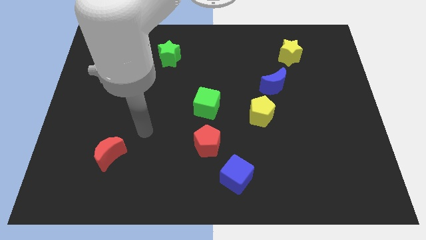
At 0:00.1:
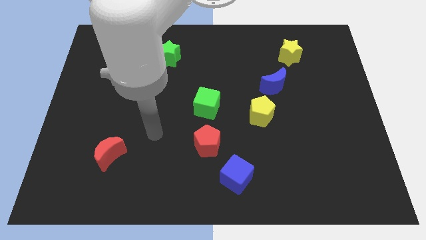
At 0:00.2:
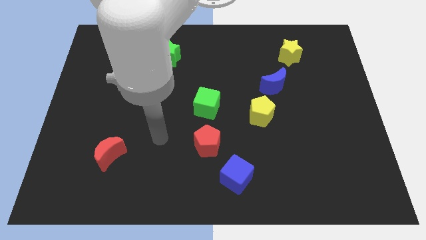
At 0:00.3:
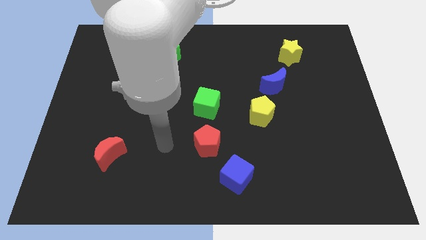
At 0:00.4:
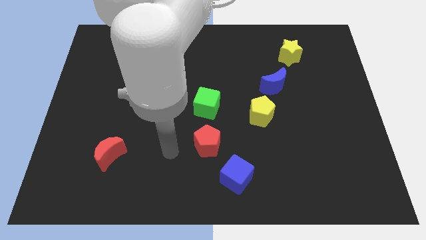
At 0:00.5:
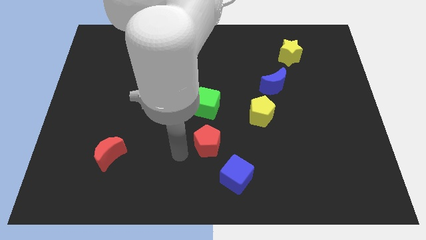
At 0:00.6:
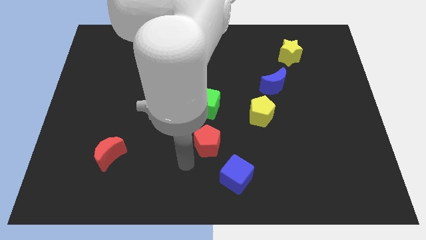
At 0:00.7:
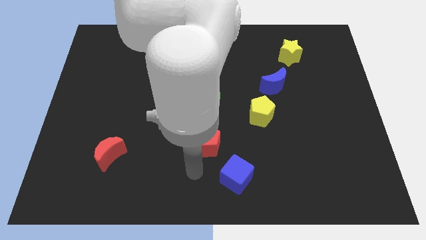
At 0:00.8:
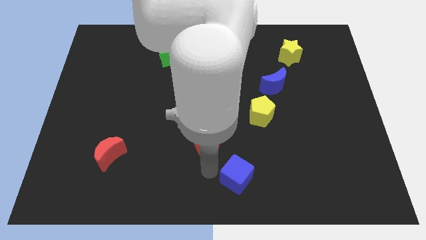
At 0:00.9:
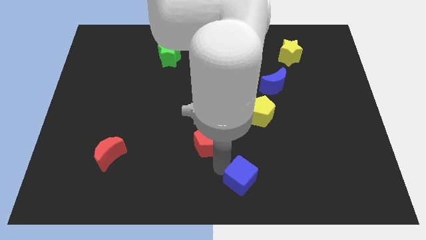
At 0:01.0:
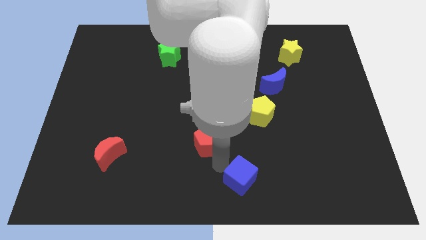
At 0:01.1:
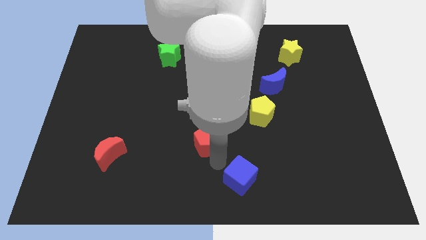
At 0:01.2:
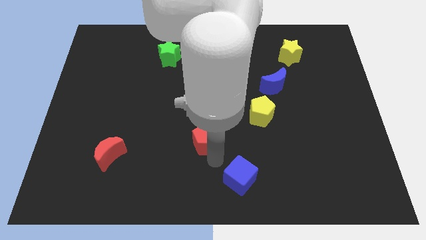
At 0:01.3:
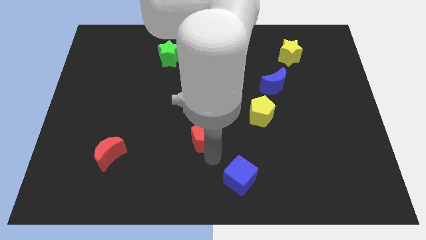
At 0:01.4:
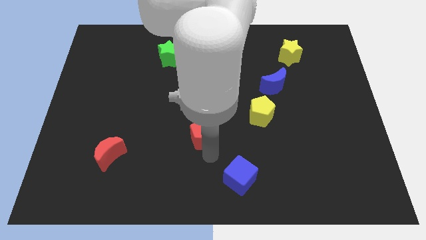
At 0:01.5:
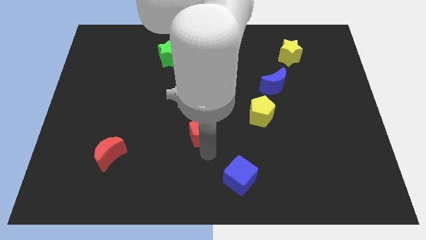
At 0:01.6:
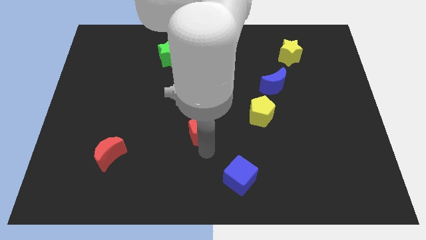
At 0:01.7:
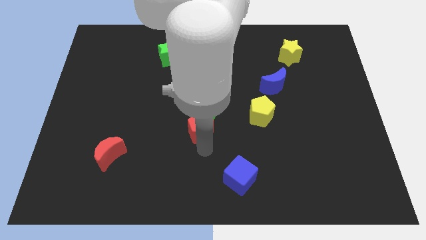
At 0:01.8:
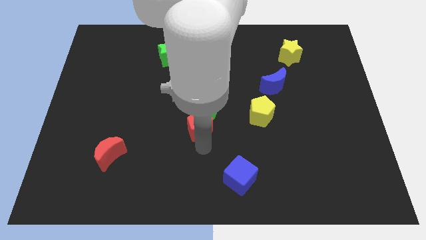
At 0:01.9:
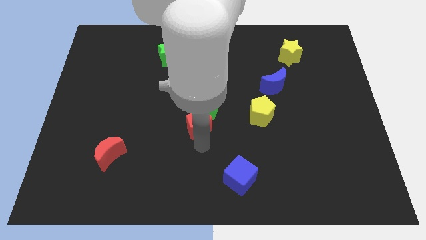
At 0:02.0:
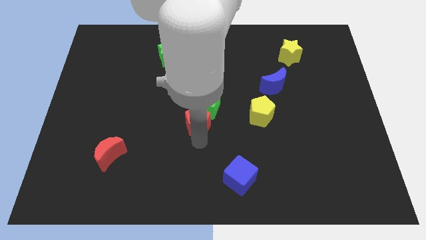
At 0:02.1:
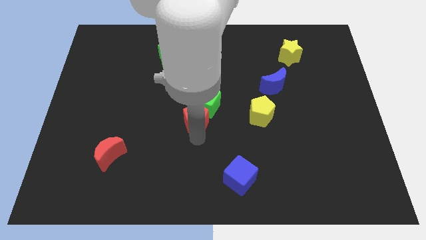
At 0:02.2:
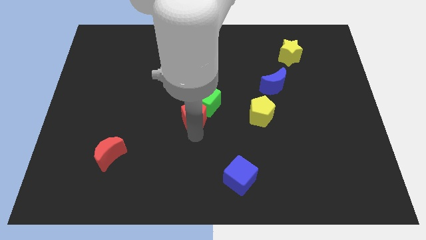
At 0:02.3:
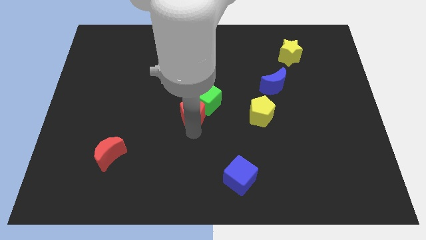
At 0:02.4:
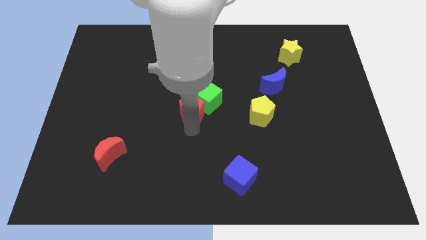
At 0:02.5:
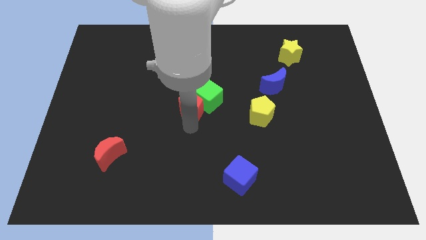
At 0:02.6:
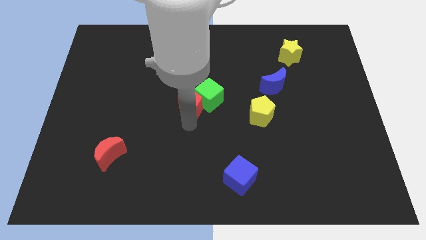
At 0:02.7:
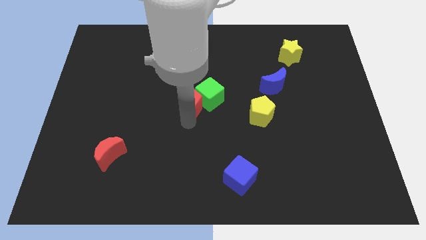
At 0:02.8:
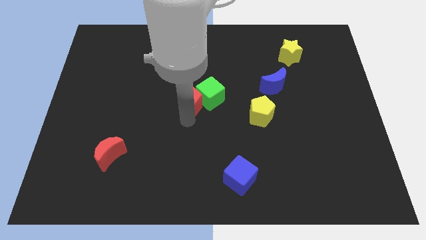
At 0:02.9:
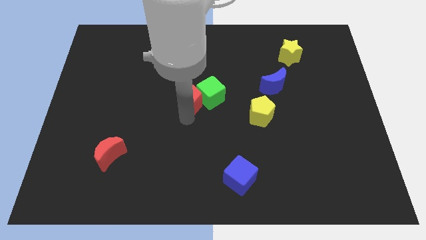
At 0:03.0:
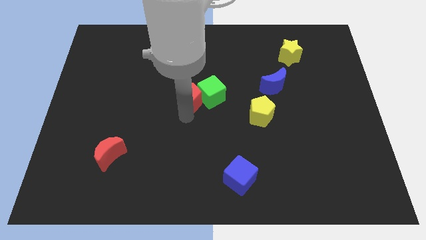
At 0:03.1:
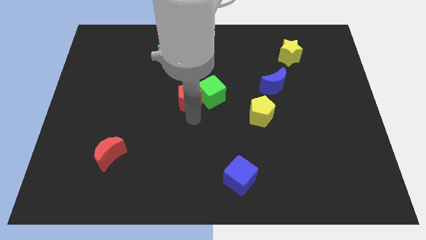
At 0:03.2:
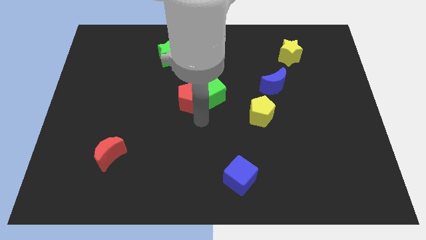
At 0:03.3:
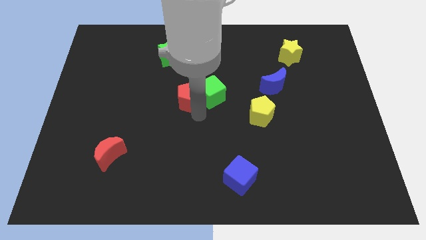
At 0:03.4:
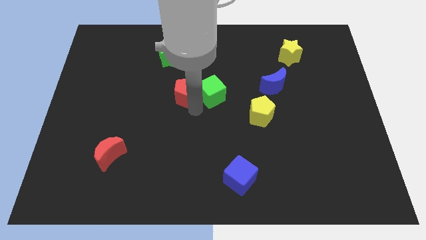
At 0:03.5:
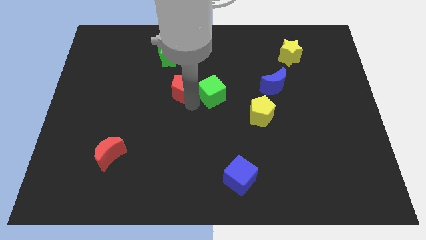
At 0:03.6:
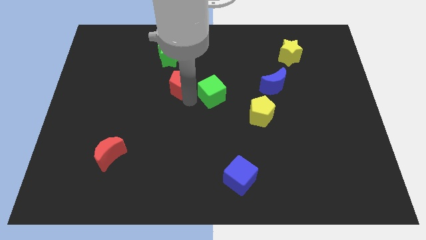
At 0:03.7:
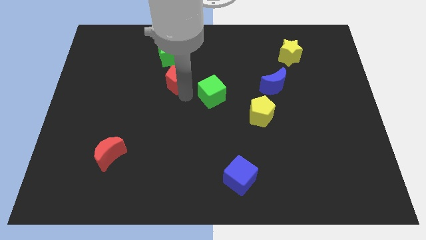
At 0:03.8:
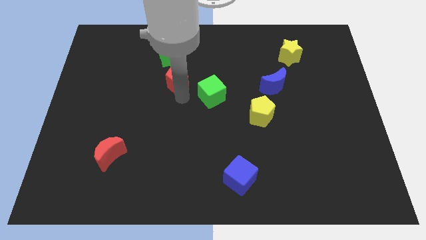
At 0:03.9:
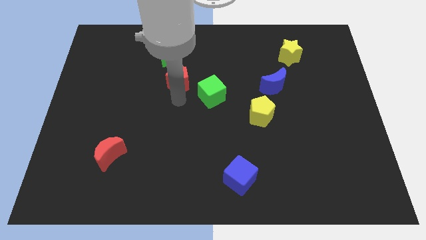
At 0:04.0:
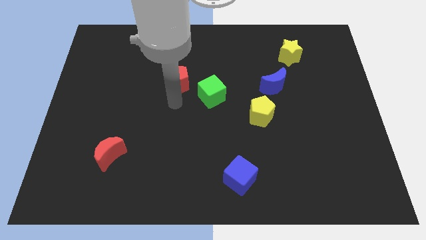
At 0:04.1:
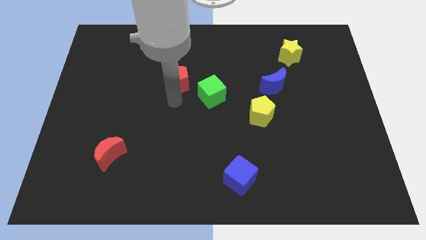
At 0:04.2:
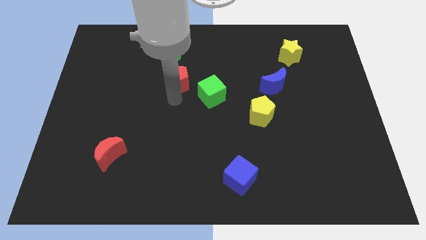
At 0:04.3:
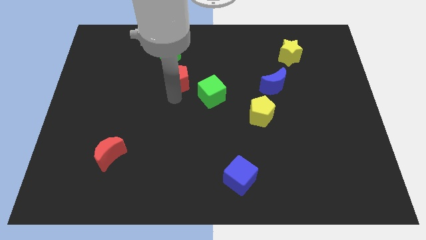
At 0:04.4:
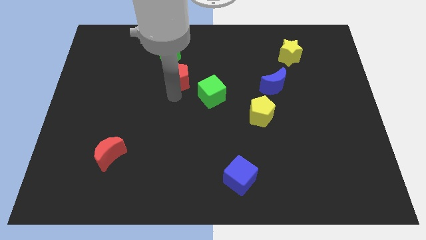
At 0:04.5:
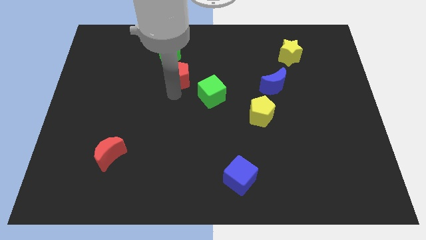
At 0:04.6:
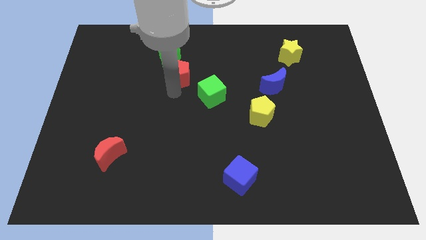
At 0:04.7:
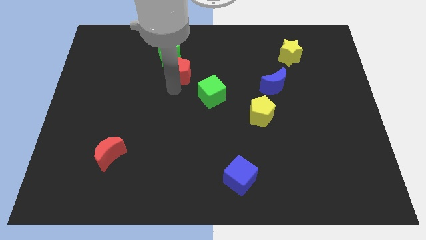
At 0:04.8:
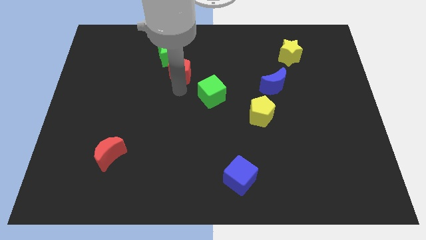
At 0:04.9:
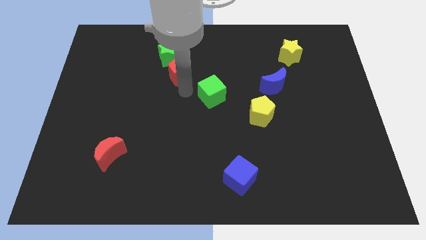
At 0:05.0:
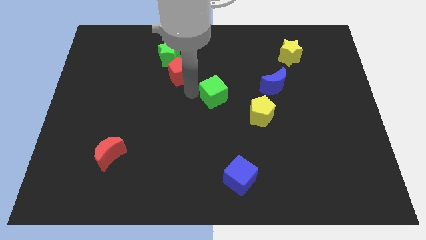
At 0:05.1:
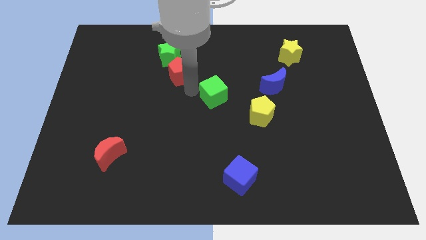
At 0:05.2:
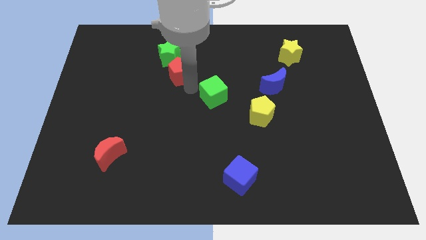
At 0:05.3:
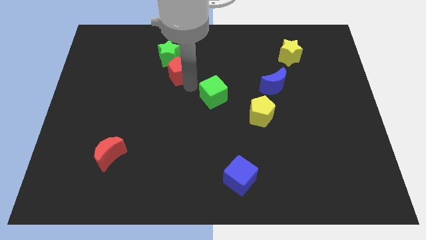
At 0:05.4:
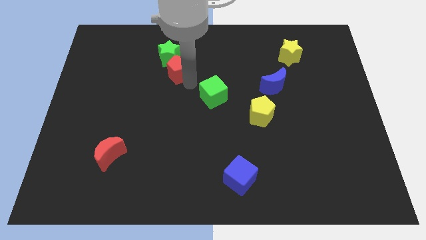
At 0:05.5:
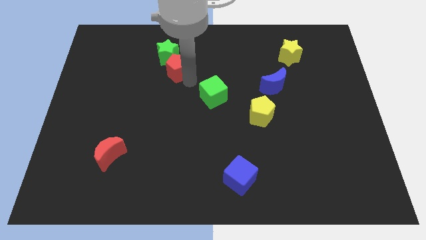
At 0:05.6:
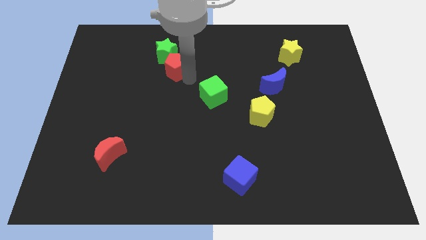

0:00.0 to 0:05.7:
move the red pentagon next to the green star

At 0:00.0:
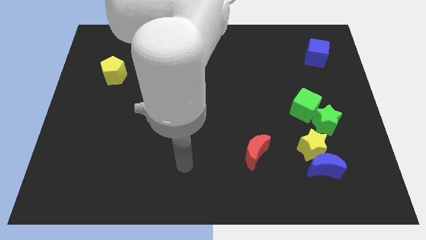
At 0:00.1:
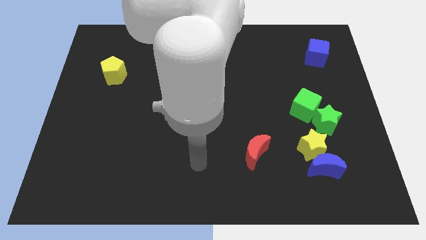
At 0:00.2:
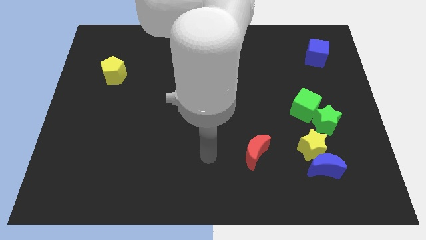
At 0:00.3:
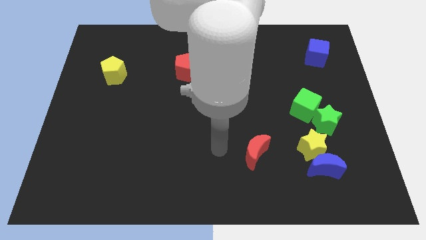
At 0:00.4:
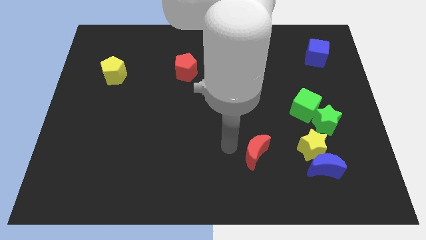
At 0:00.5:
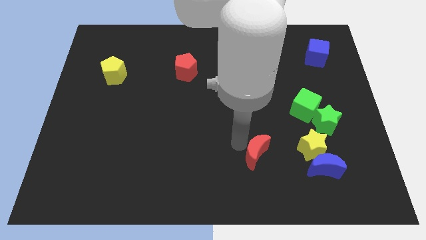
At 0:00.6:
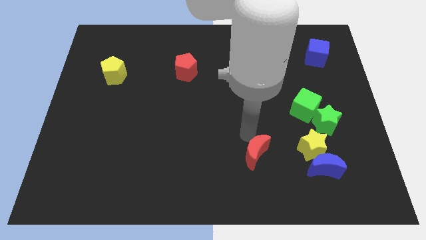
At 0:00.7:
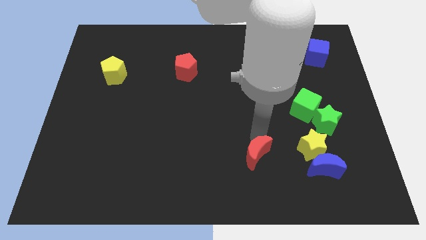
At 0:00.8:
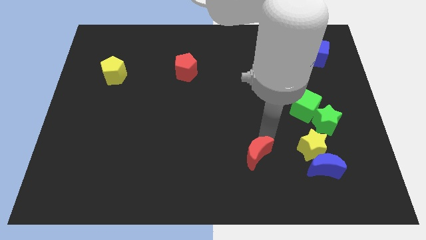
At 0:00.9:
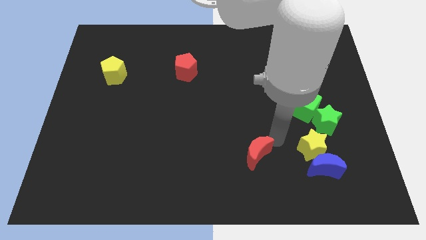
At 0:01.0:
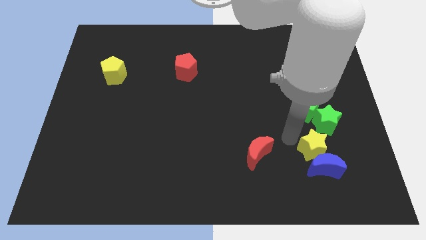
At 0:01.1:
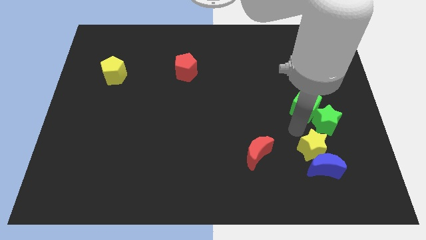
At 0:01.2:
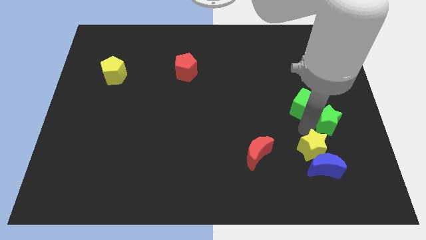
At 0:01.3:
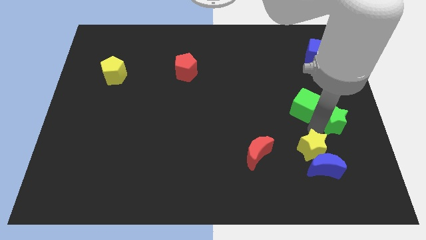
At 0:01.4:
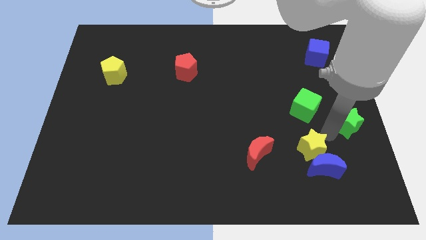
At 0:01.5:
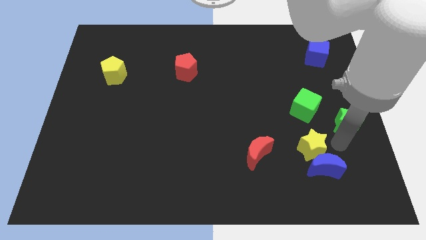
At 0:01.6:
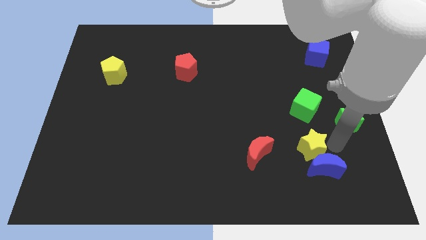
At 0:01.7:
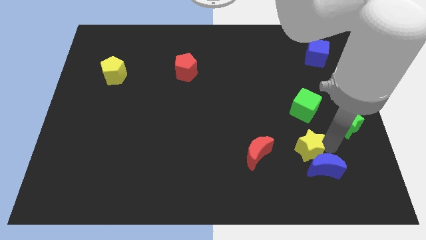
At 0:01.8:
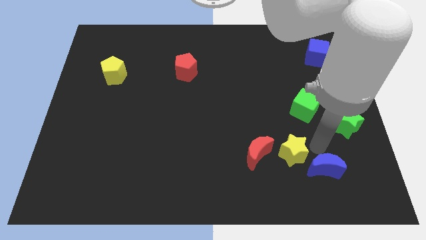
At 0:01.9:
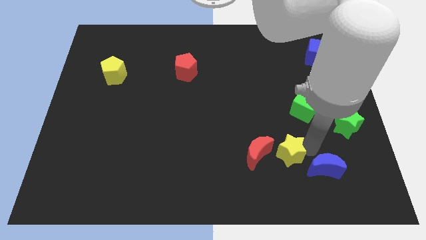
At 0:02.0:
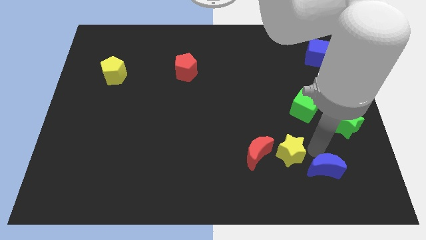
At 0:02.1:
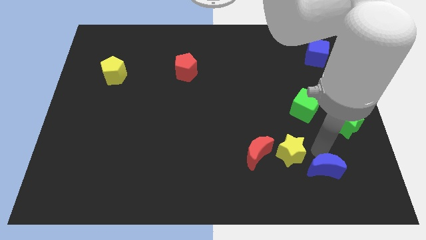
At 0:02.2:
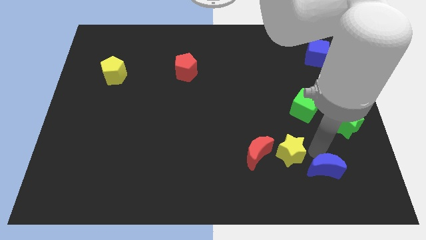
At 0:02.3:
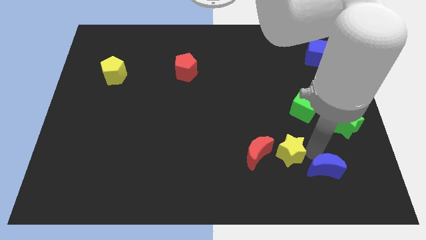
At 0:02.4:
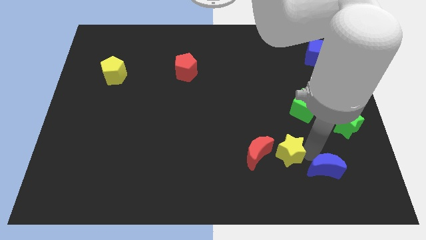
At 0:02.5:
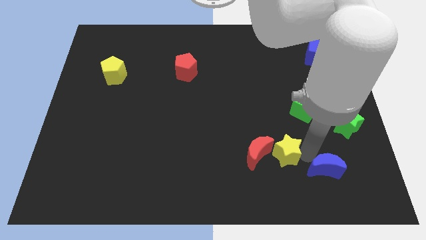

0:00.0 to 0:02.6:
put the yellow star next to the red moon
